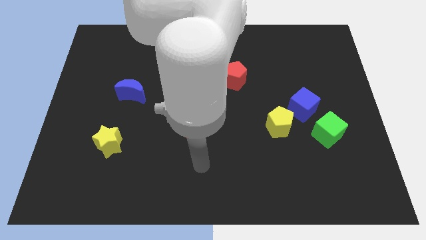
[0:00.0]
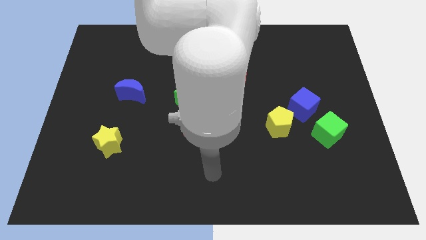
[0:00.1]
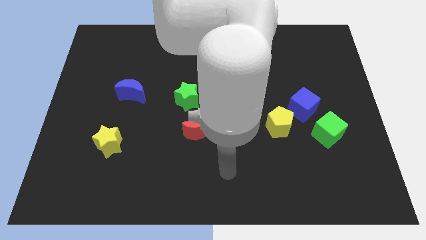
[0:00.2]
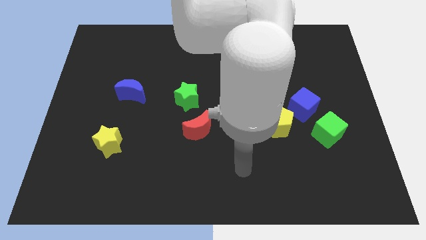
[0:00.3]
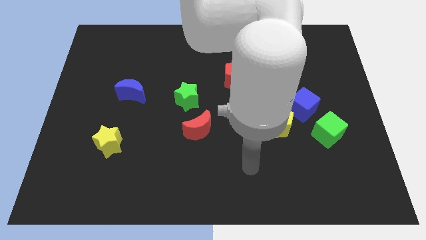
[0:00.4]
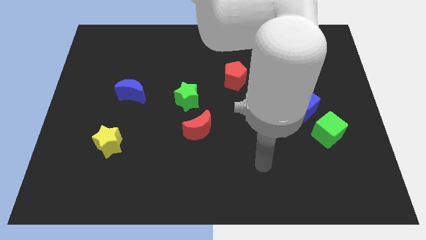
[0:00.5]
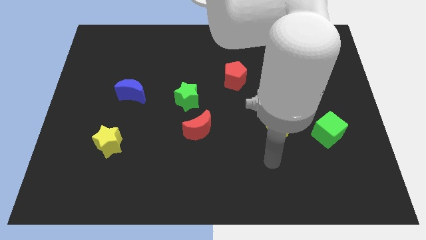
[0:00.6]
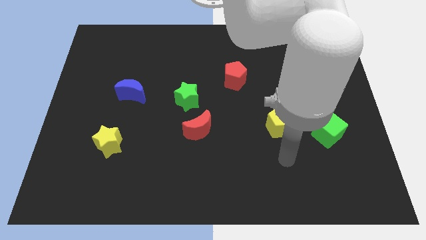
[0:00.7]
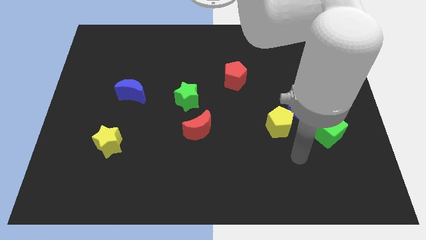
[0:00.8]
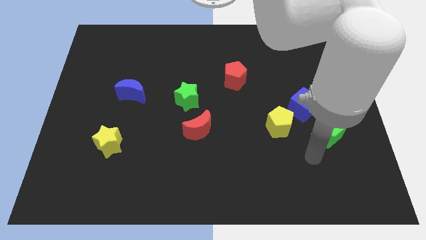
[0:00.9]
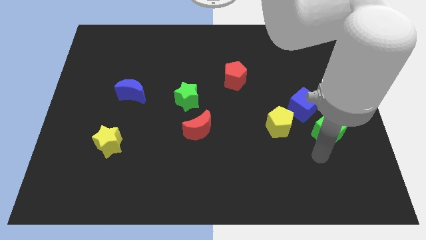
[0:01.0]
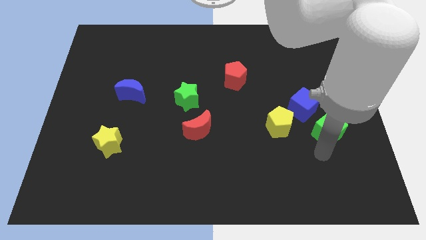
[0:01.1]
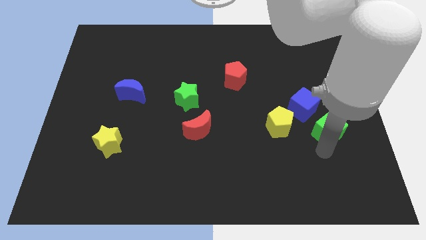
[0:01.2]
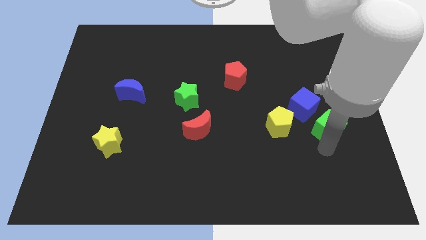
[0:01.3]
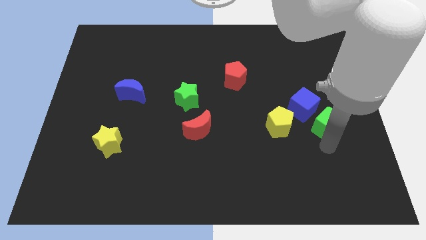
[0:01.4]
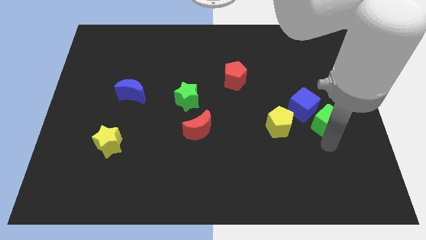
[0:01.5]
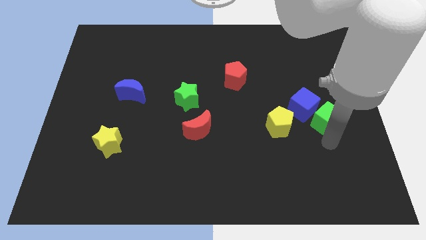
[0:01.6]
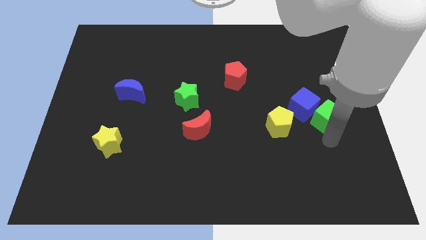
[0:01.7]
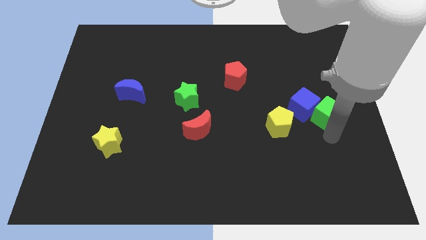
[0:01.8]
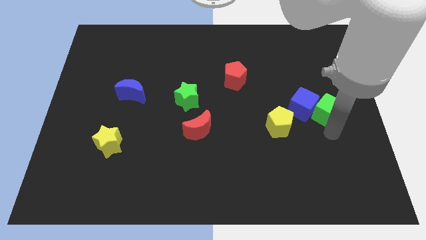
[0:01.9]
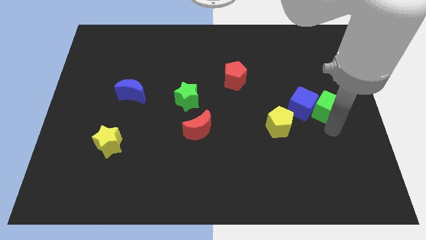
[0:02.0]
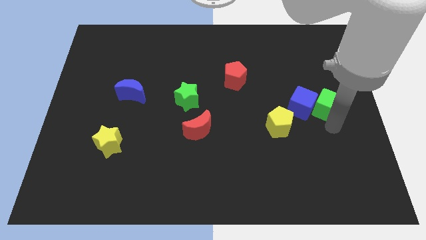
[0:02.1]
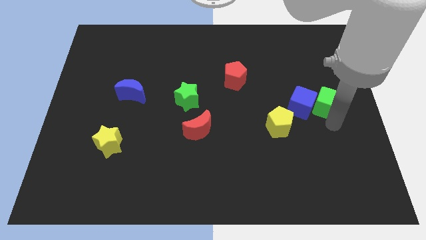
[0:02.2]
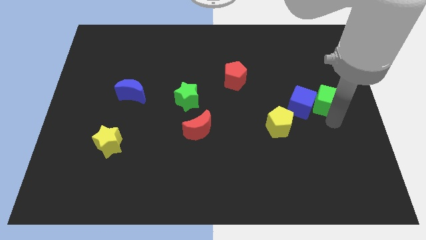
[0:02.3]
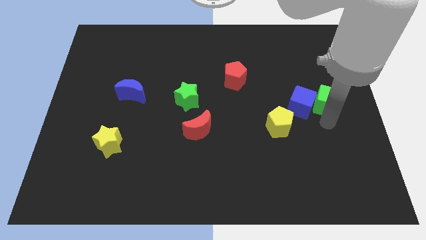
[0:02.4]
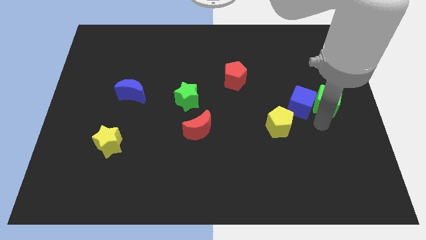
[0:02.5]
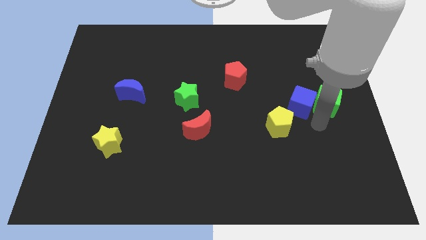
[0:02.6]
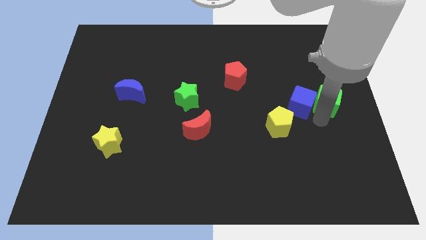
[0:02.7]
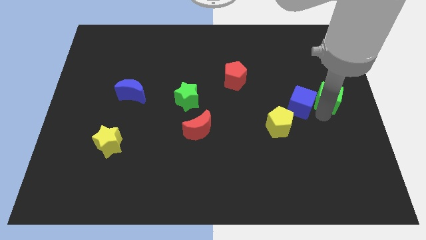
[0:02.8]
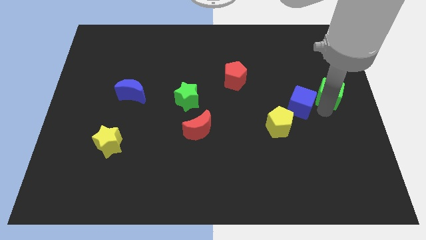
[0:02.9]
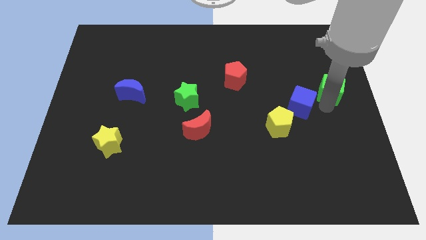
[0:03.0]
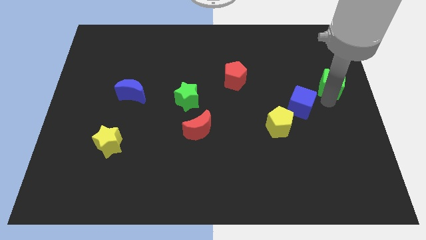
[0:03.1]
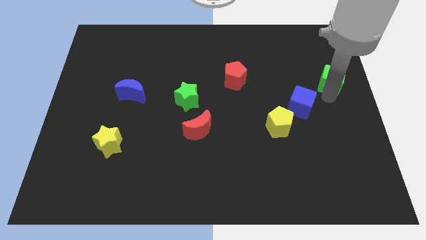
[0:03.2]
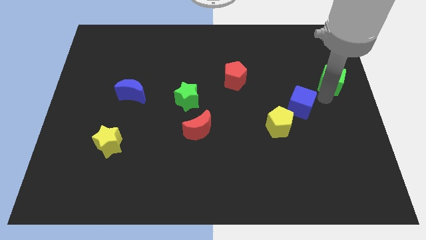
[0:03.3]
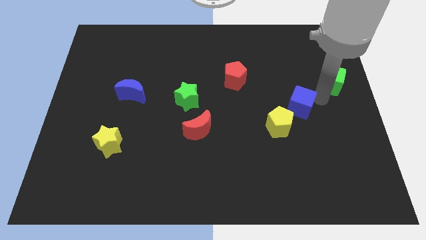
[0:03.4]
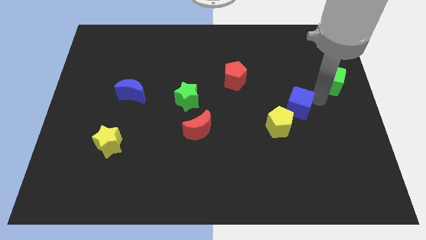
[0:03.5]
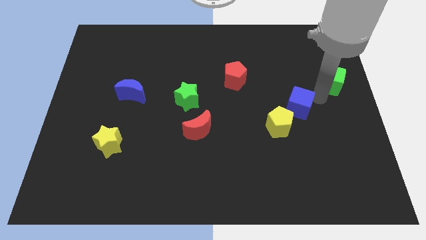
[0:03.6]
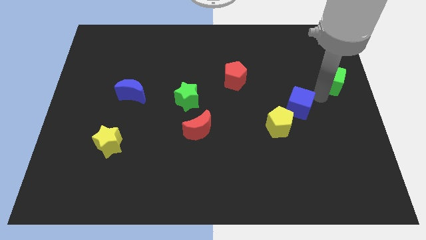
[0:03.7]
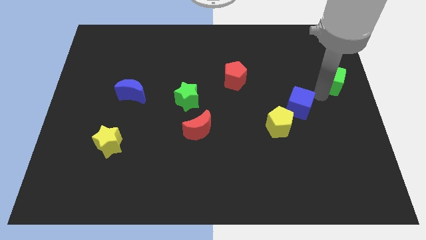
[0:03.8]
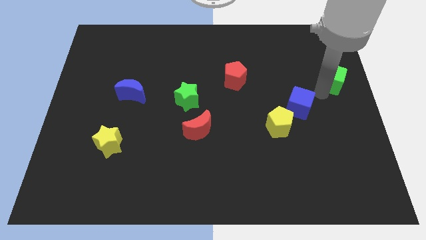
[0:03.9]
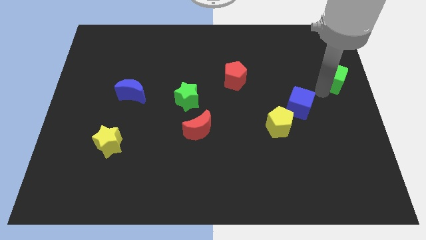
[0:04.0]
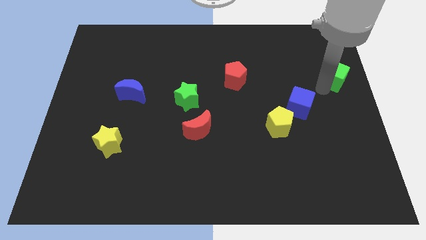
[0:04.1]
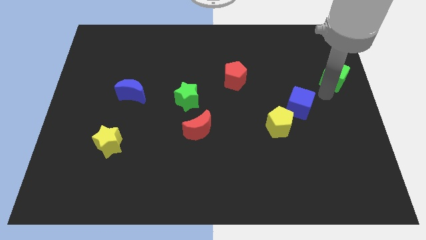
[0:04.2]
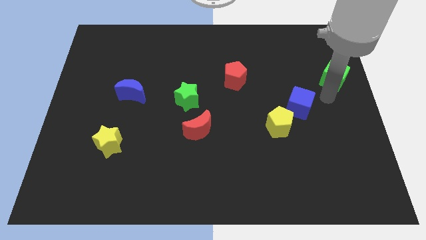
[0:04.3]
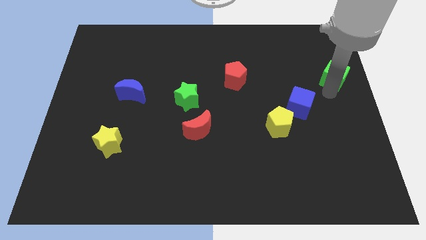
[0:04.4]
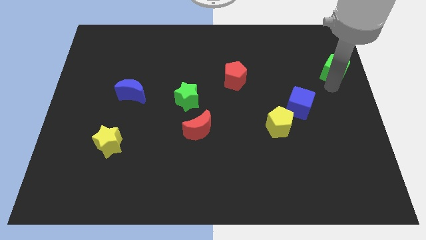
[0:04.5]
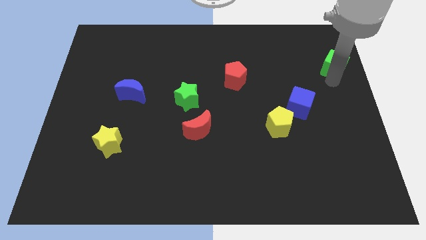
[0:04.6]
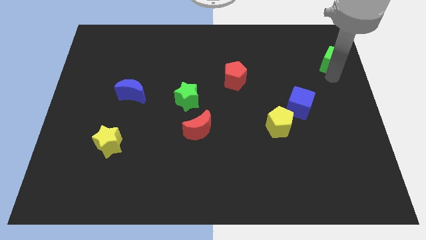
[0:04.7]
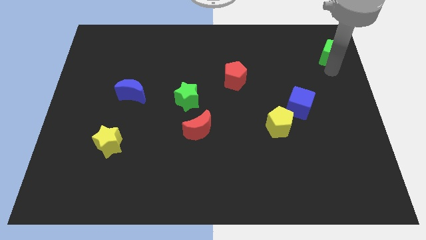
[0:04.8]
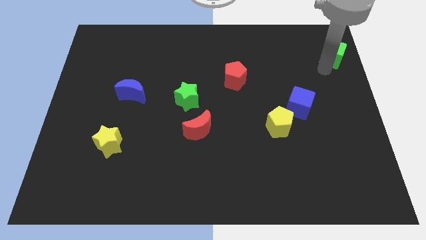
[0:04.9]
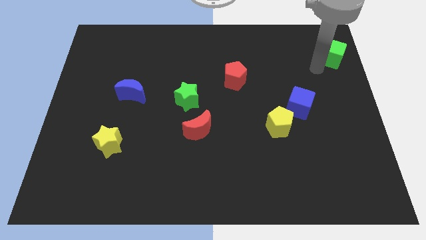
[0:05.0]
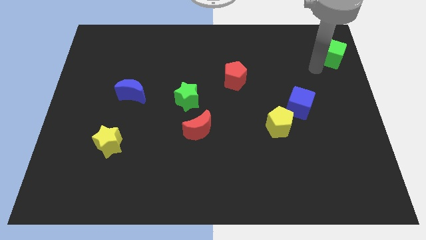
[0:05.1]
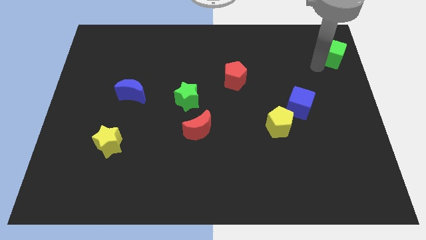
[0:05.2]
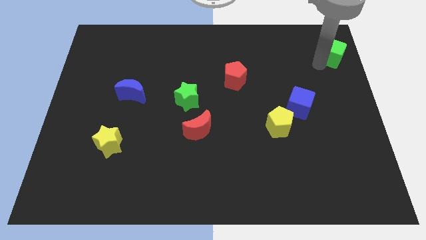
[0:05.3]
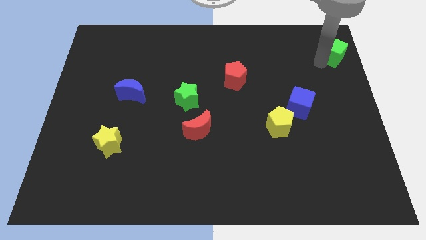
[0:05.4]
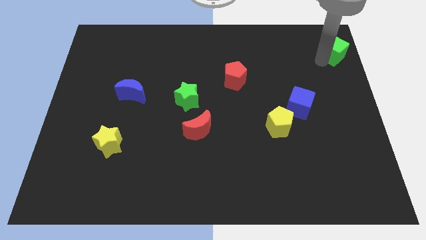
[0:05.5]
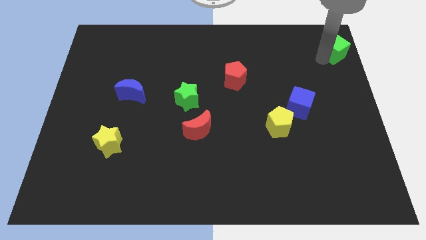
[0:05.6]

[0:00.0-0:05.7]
put the green cube to the top right
